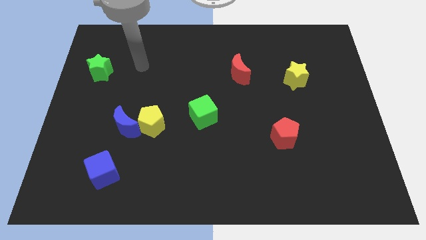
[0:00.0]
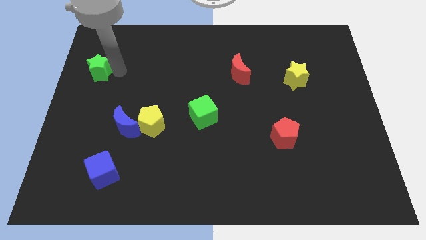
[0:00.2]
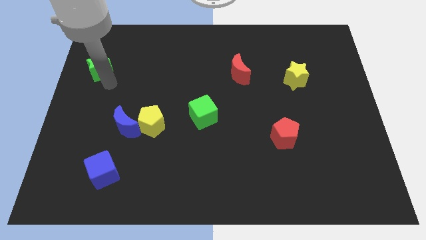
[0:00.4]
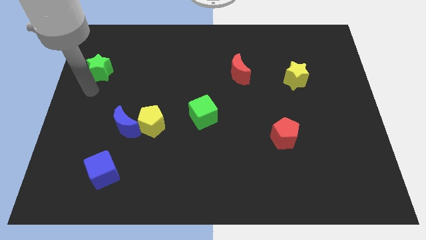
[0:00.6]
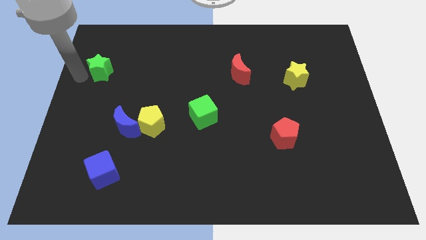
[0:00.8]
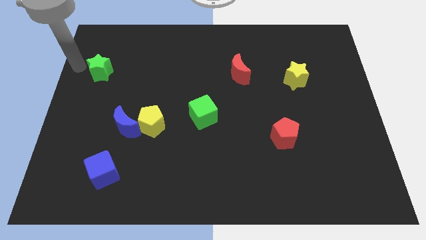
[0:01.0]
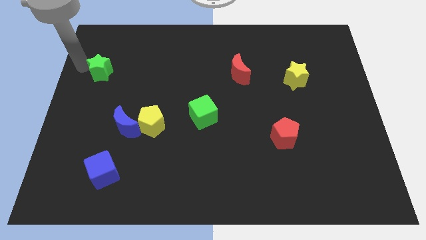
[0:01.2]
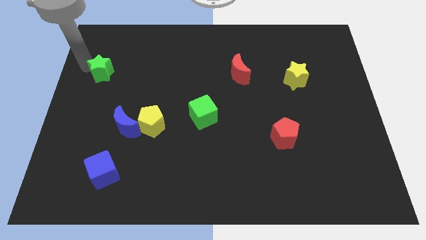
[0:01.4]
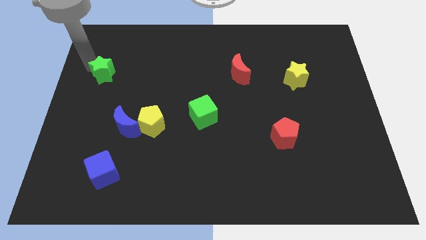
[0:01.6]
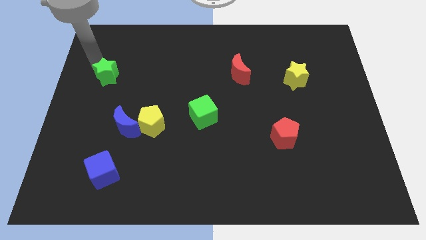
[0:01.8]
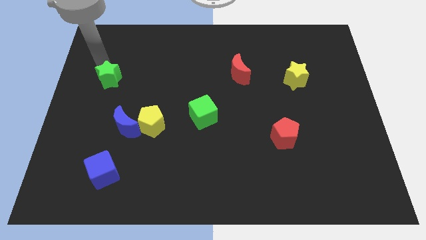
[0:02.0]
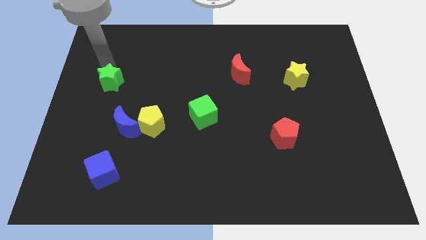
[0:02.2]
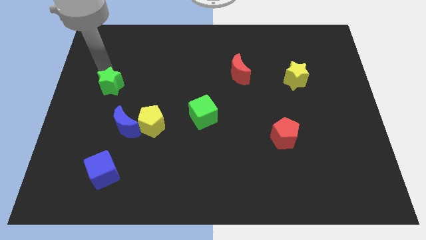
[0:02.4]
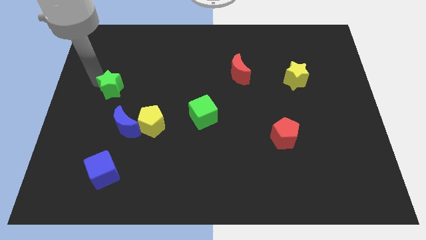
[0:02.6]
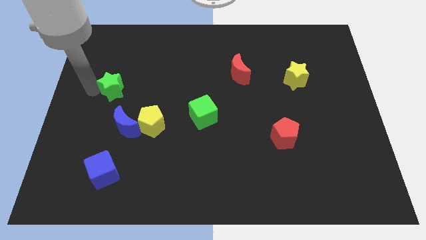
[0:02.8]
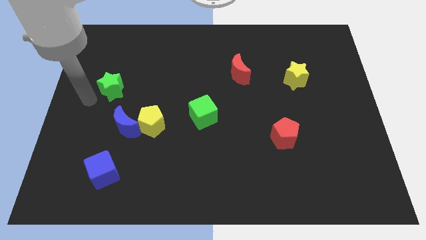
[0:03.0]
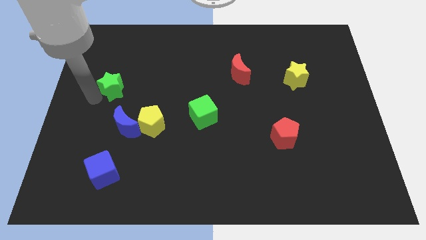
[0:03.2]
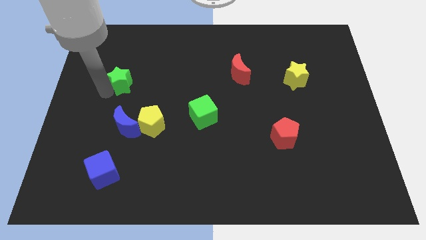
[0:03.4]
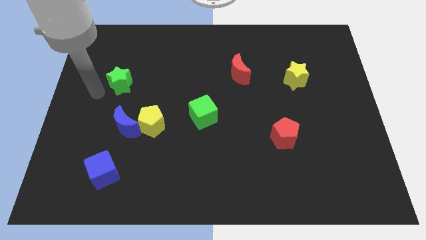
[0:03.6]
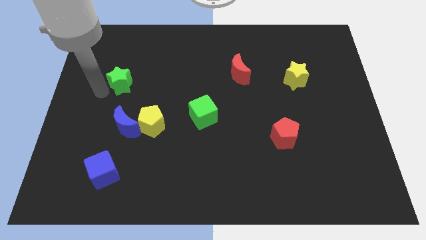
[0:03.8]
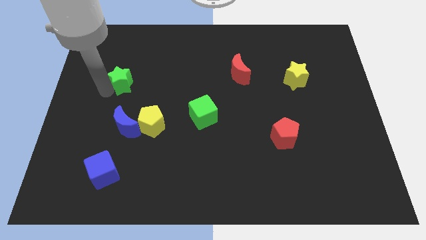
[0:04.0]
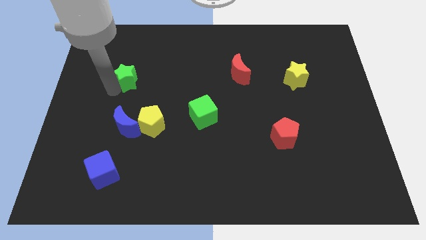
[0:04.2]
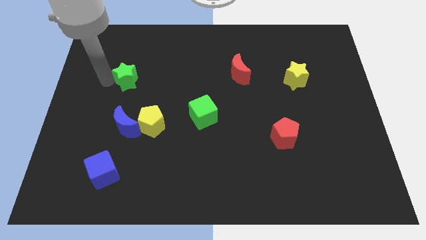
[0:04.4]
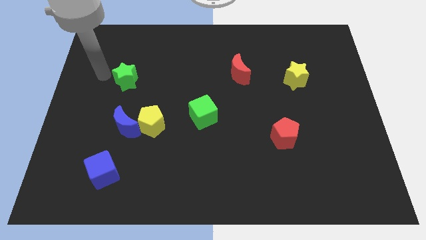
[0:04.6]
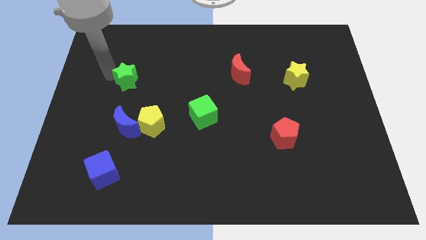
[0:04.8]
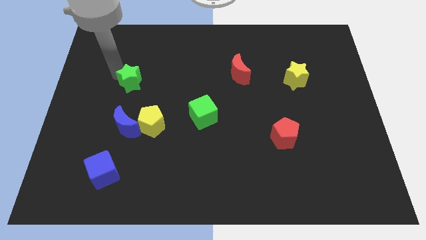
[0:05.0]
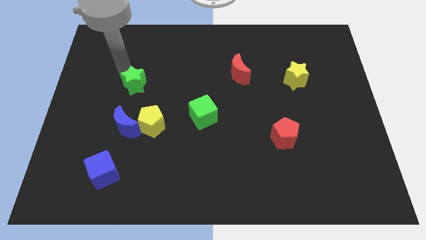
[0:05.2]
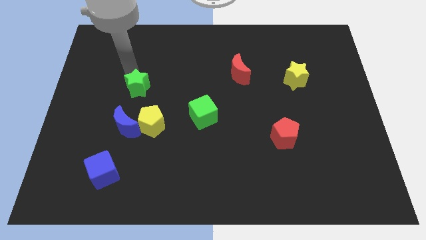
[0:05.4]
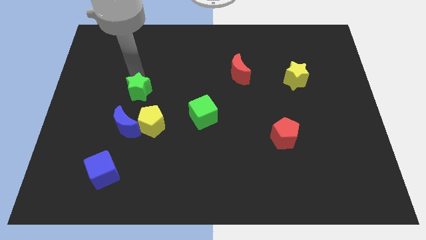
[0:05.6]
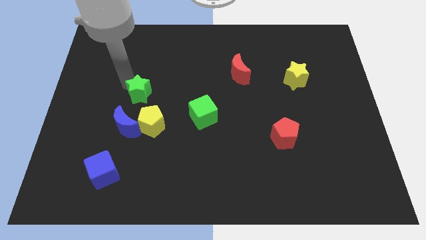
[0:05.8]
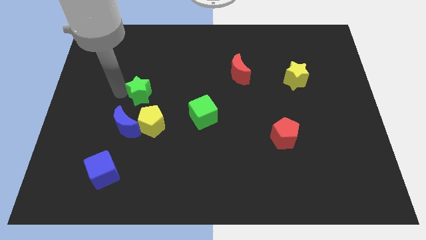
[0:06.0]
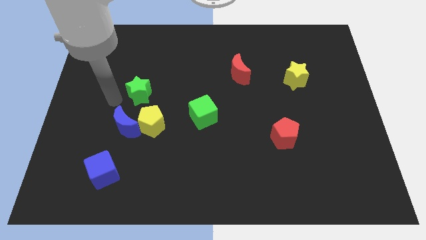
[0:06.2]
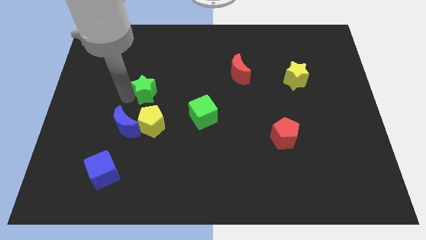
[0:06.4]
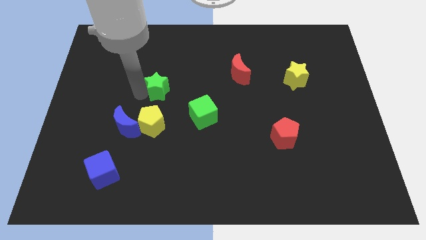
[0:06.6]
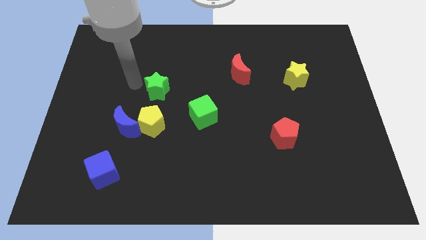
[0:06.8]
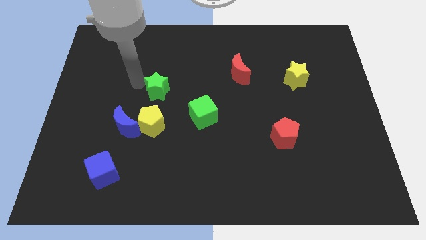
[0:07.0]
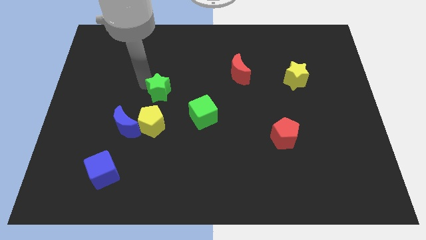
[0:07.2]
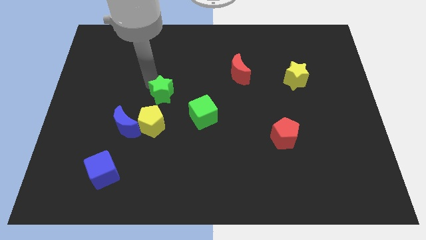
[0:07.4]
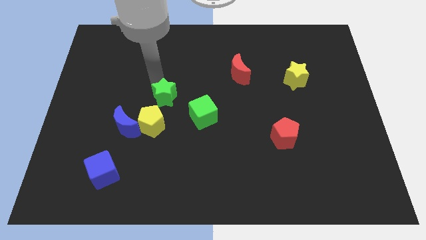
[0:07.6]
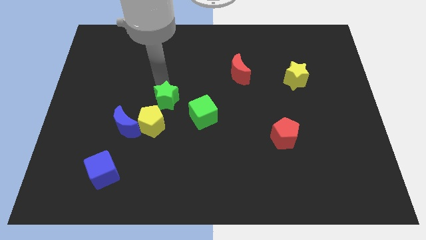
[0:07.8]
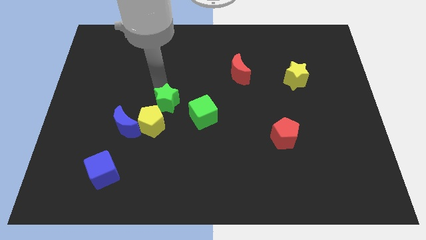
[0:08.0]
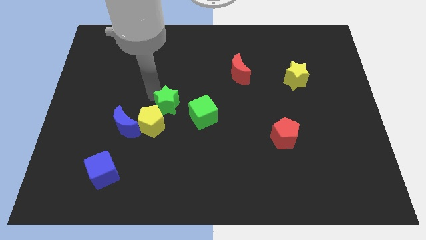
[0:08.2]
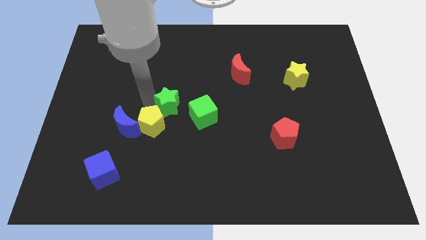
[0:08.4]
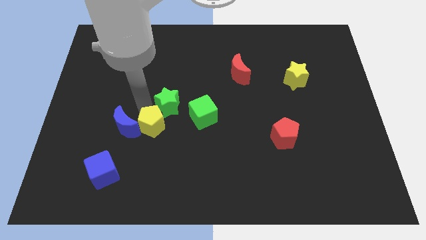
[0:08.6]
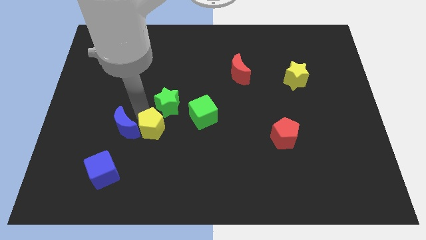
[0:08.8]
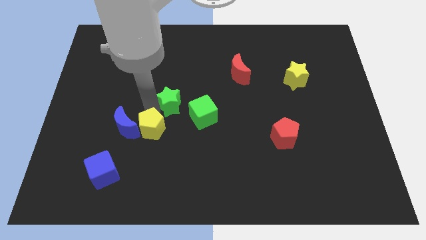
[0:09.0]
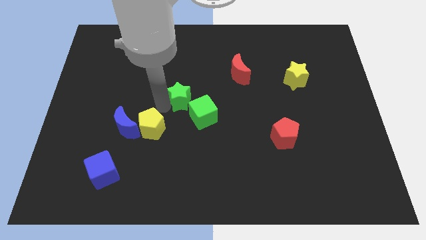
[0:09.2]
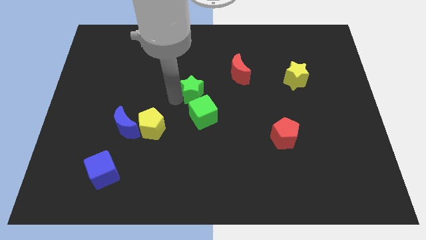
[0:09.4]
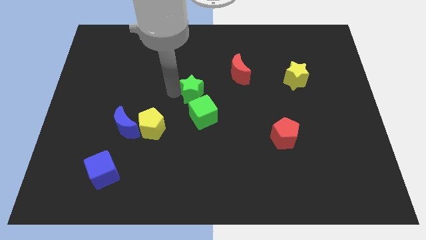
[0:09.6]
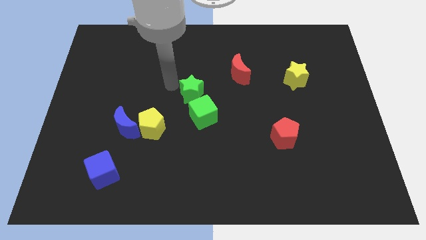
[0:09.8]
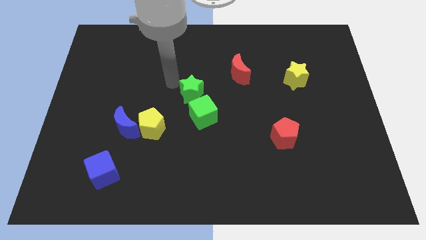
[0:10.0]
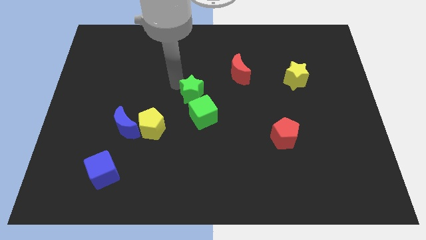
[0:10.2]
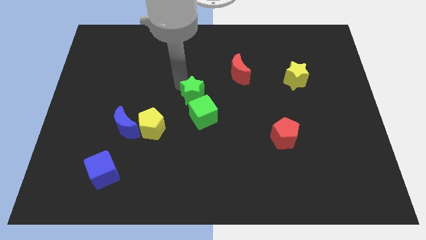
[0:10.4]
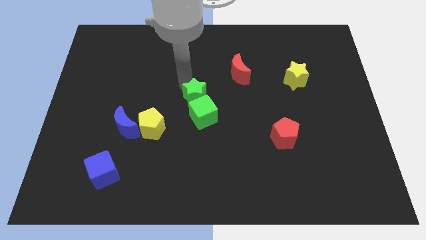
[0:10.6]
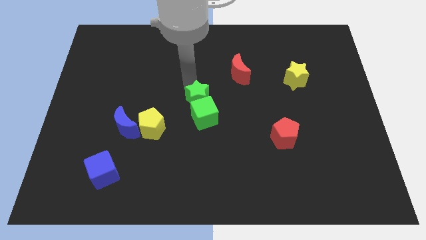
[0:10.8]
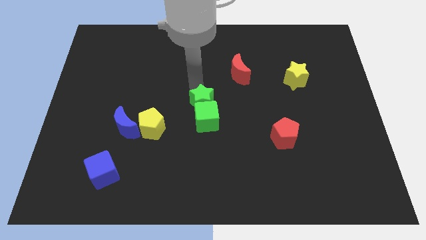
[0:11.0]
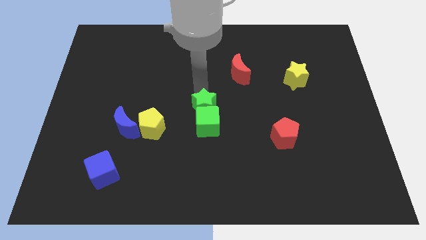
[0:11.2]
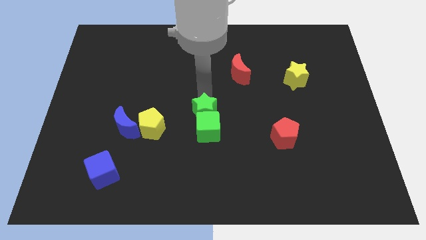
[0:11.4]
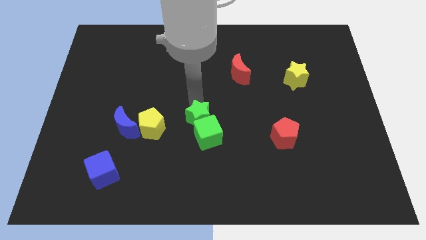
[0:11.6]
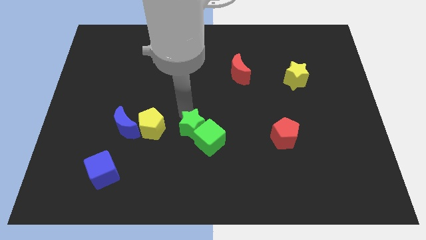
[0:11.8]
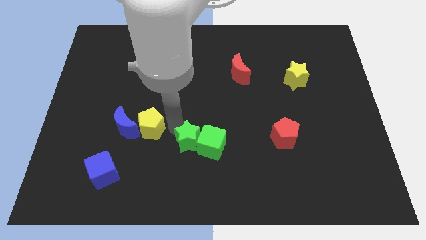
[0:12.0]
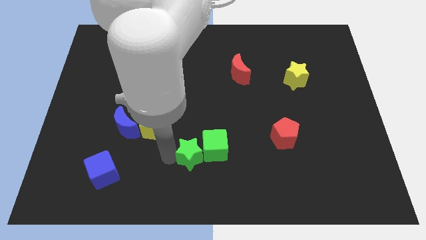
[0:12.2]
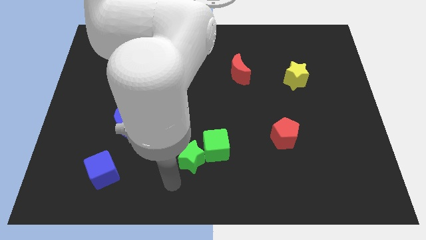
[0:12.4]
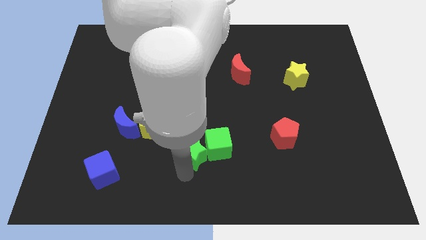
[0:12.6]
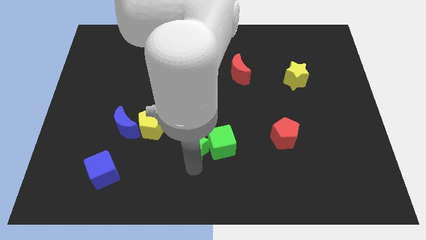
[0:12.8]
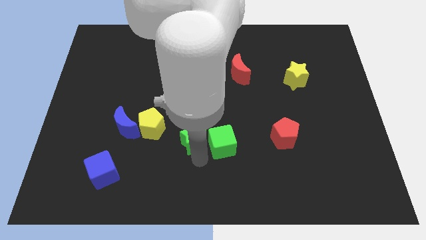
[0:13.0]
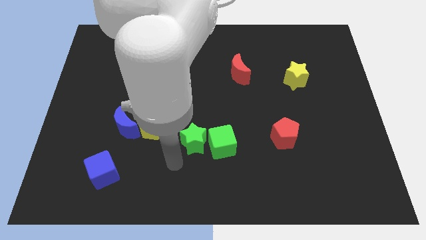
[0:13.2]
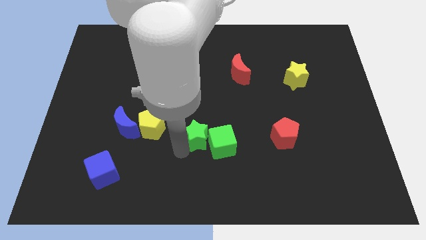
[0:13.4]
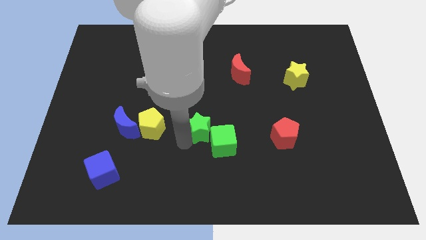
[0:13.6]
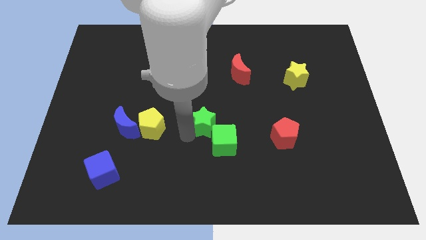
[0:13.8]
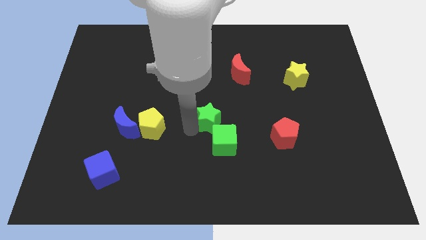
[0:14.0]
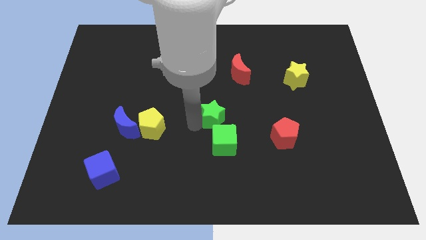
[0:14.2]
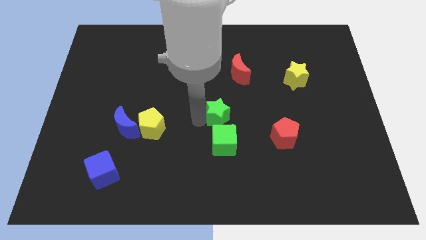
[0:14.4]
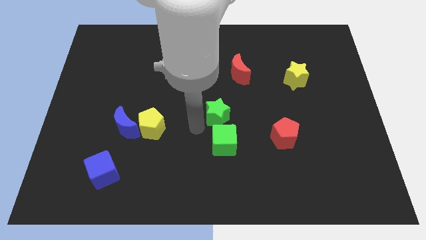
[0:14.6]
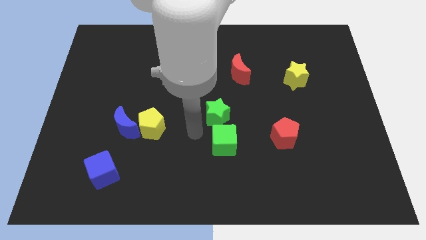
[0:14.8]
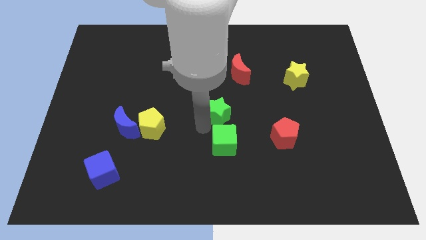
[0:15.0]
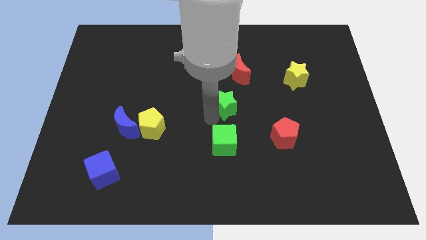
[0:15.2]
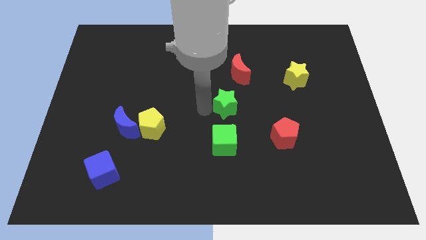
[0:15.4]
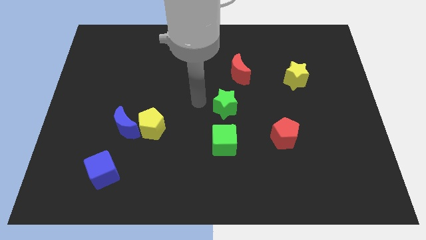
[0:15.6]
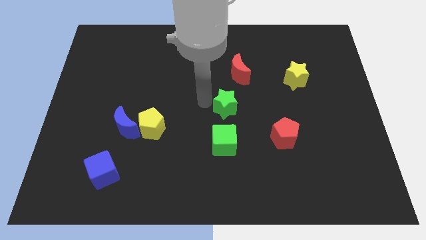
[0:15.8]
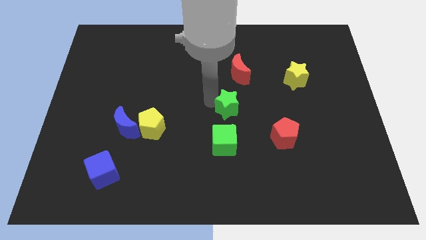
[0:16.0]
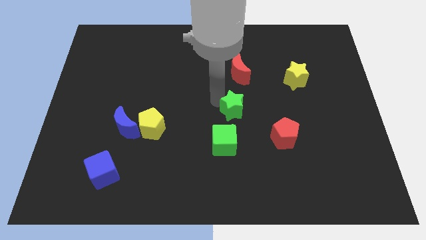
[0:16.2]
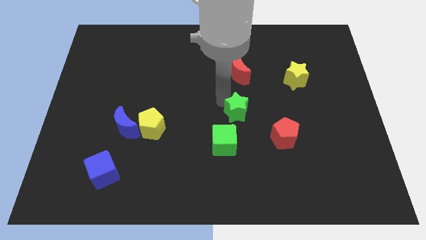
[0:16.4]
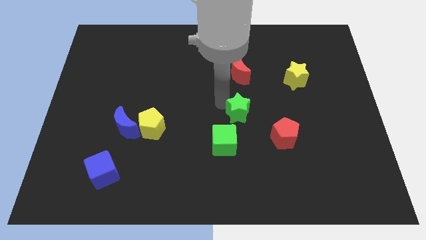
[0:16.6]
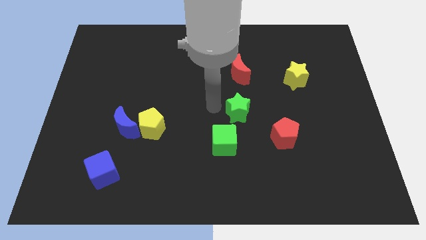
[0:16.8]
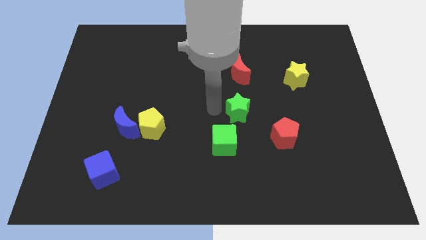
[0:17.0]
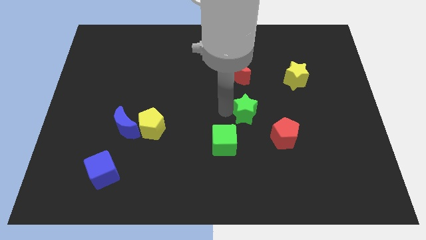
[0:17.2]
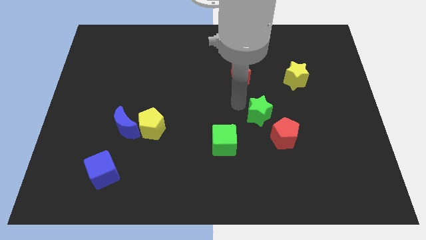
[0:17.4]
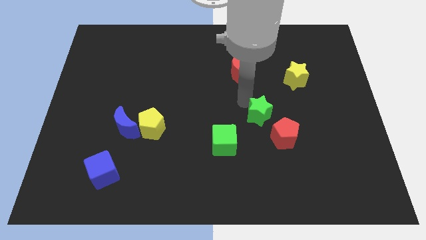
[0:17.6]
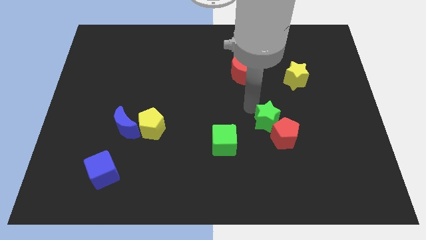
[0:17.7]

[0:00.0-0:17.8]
move the green star close to the red pentagon
